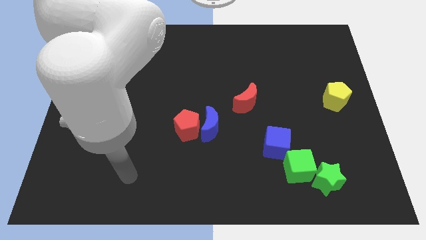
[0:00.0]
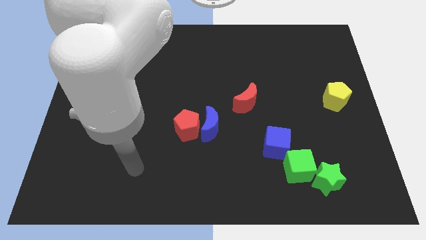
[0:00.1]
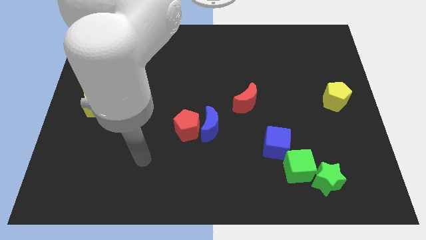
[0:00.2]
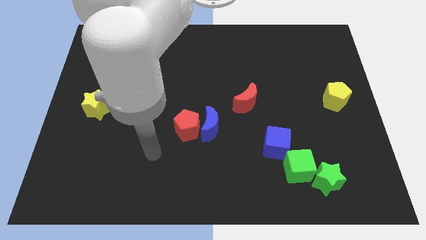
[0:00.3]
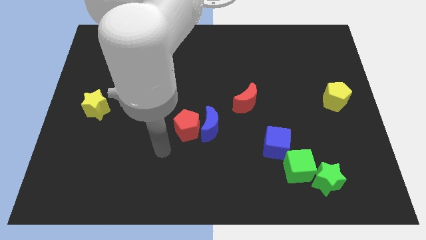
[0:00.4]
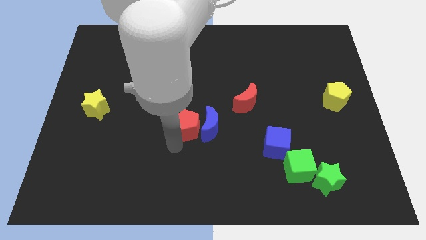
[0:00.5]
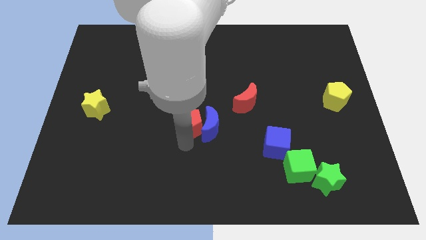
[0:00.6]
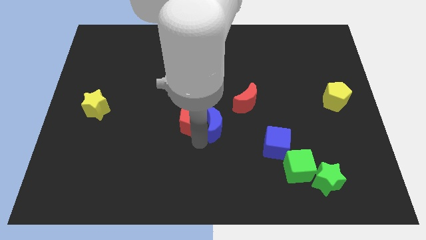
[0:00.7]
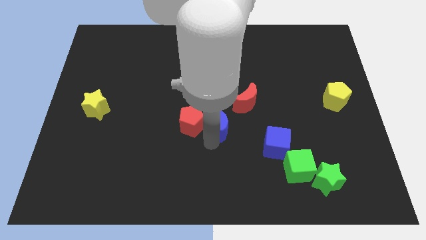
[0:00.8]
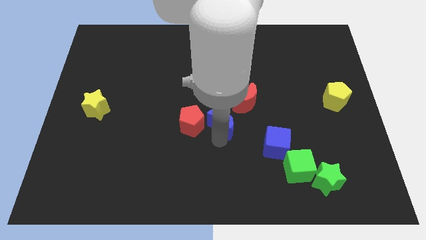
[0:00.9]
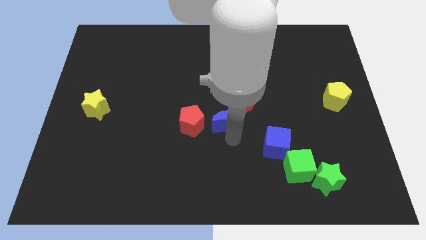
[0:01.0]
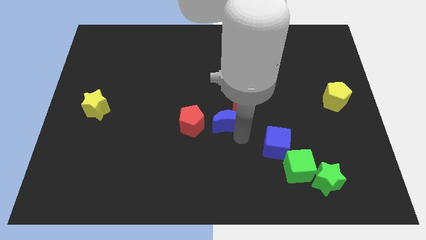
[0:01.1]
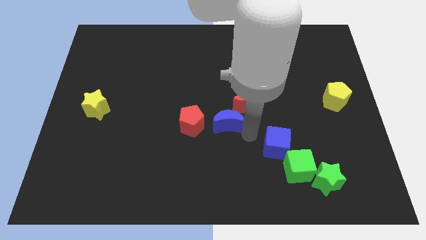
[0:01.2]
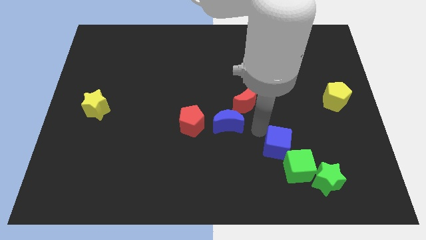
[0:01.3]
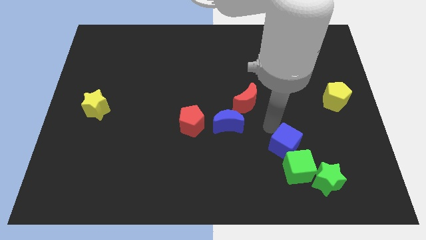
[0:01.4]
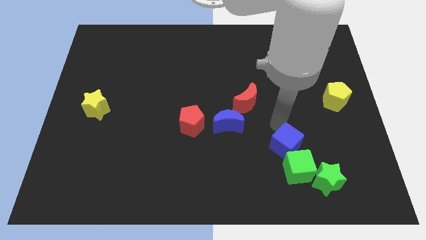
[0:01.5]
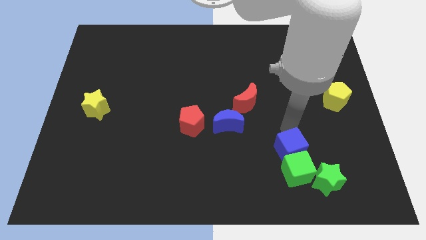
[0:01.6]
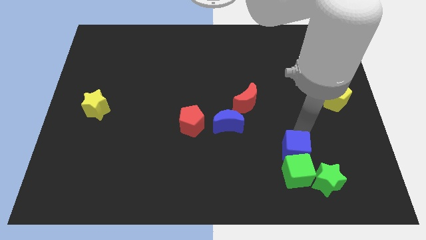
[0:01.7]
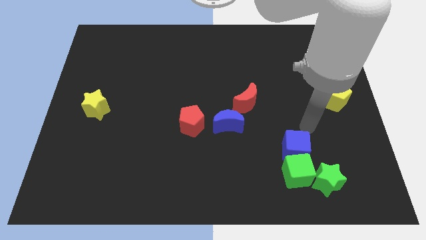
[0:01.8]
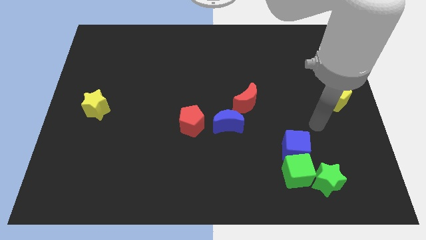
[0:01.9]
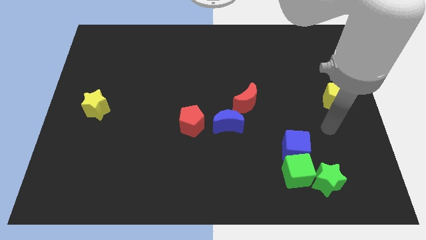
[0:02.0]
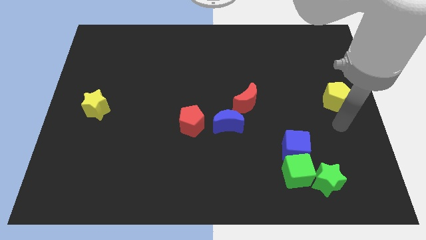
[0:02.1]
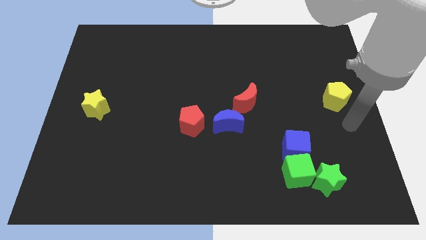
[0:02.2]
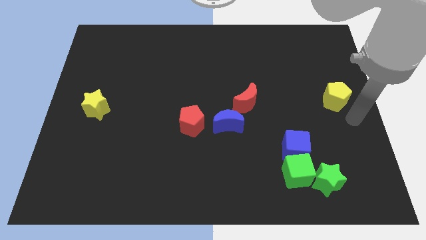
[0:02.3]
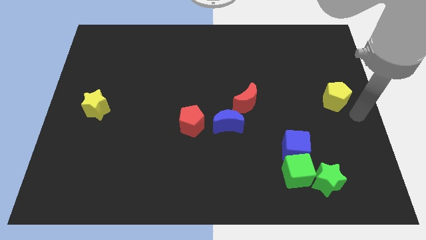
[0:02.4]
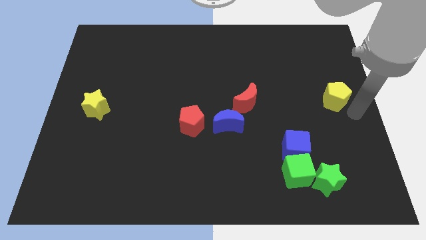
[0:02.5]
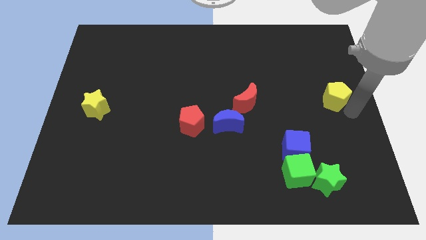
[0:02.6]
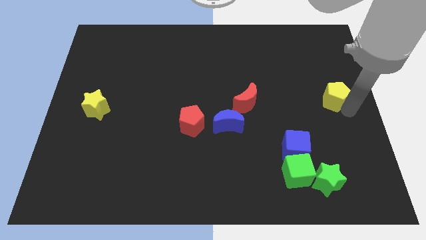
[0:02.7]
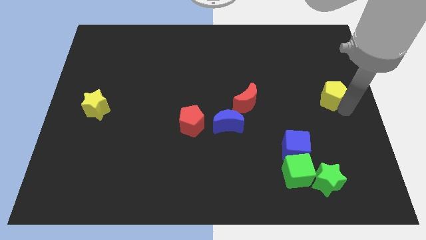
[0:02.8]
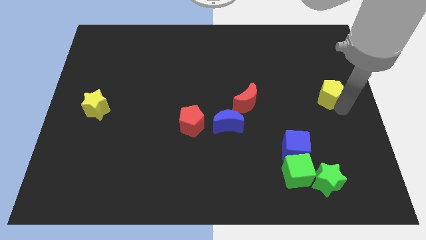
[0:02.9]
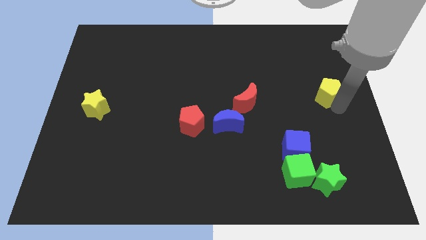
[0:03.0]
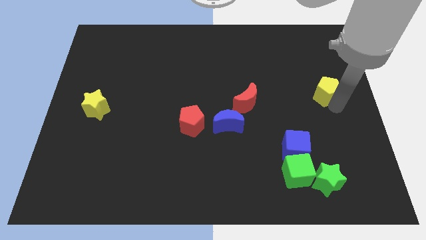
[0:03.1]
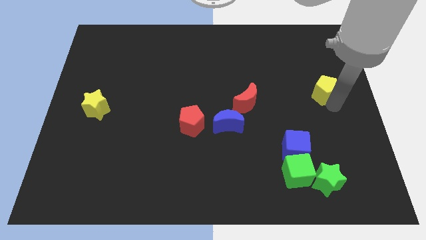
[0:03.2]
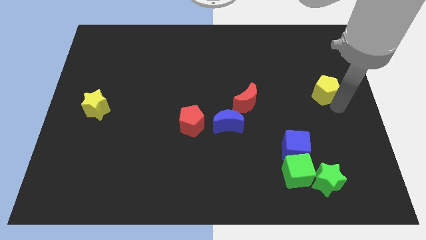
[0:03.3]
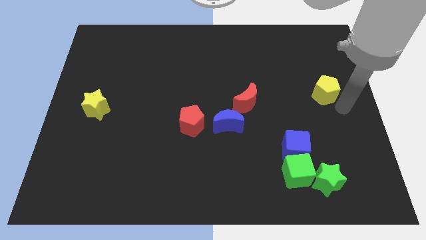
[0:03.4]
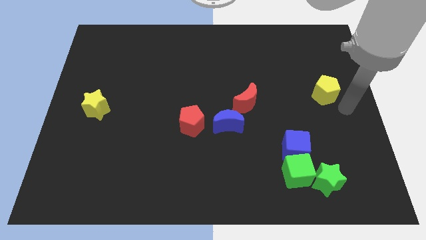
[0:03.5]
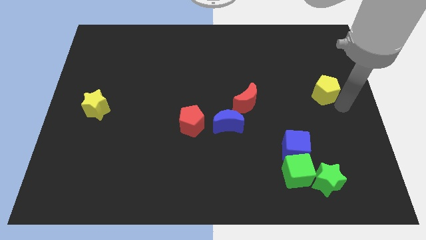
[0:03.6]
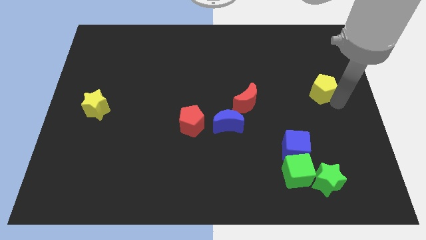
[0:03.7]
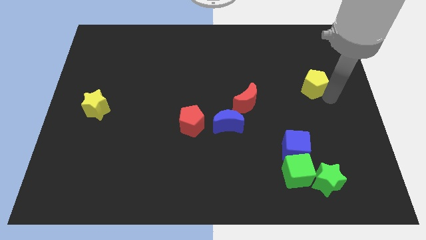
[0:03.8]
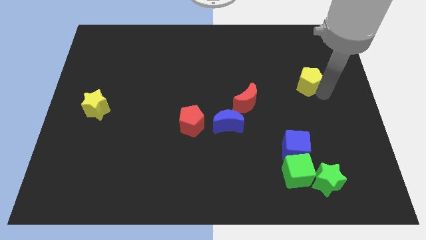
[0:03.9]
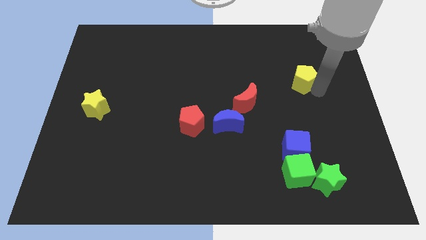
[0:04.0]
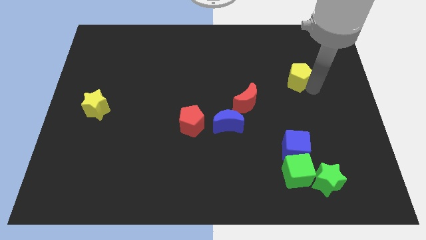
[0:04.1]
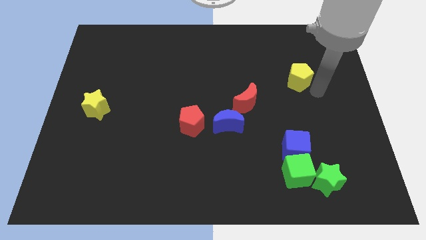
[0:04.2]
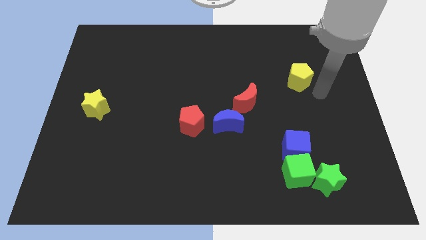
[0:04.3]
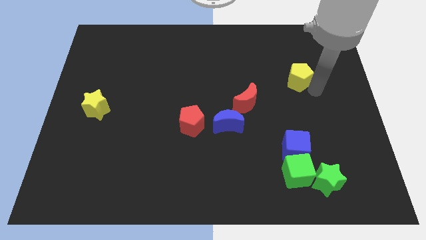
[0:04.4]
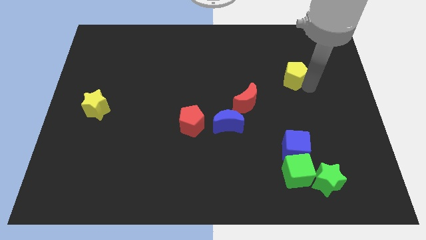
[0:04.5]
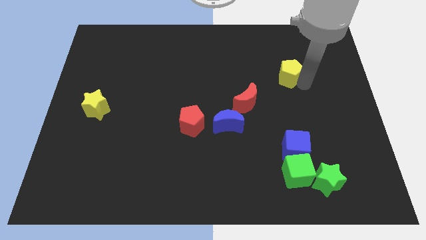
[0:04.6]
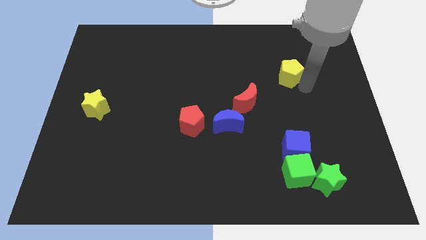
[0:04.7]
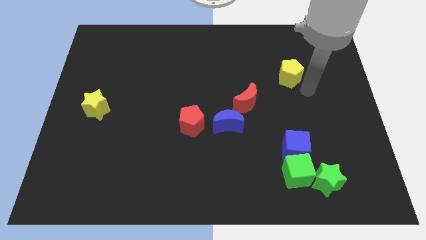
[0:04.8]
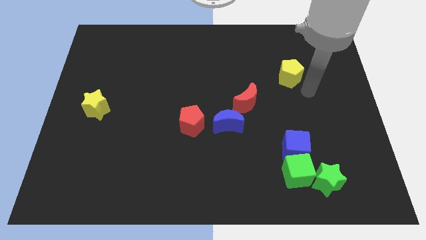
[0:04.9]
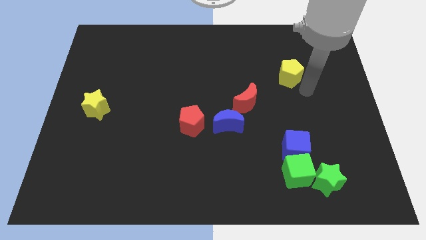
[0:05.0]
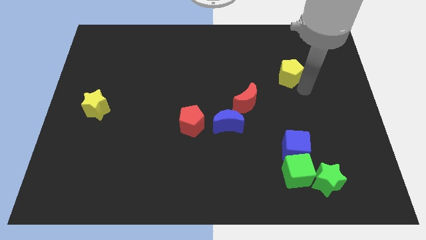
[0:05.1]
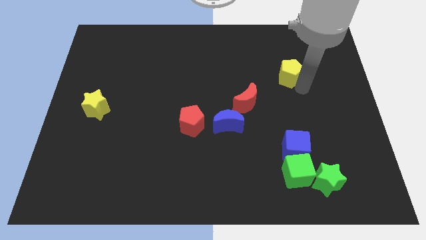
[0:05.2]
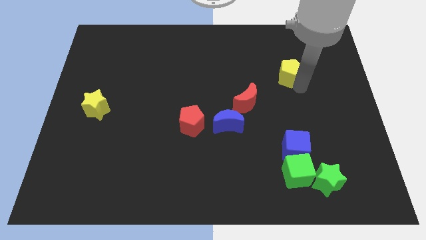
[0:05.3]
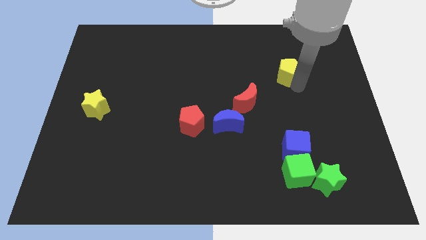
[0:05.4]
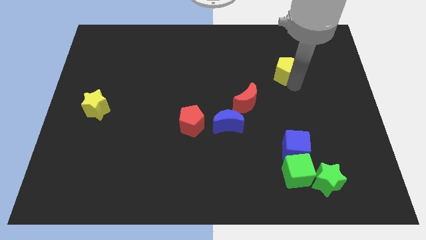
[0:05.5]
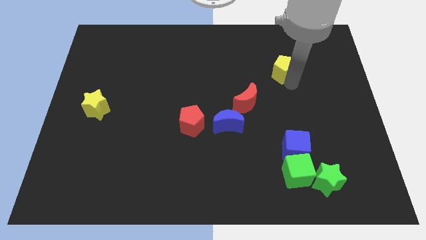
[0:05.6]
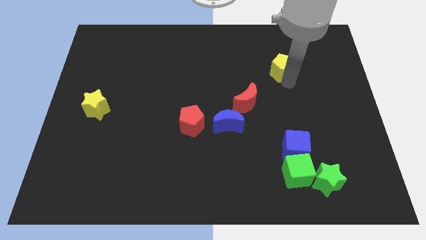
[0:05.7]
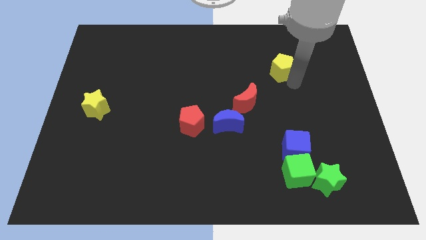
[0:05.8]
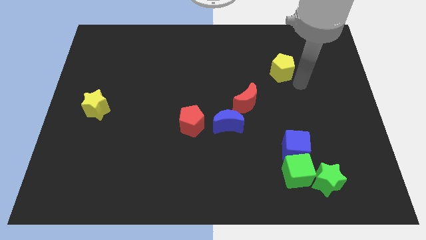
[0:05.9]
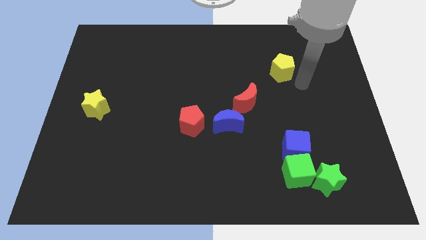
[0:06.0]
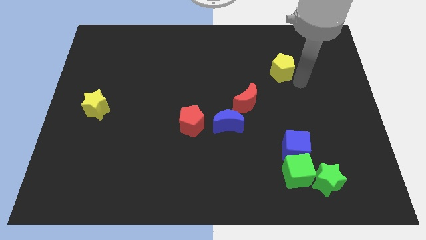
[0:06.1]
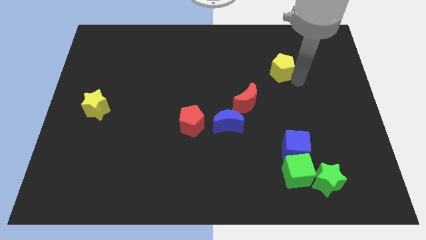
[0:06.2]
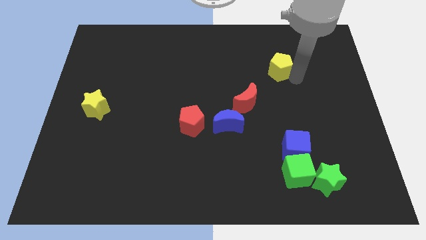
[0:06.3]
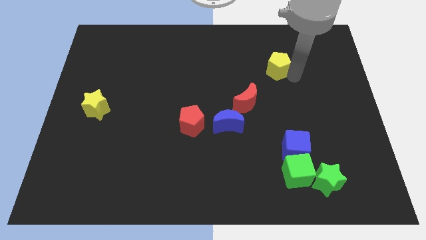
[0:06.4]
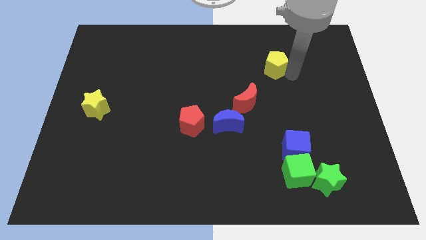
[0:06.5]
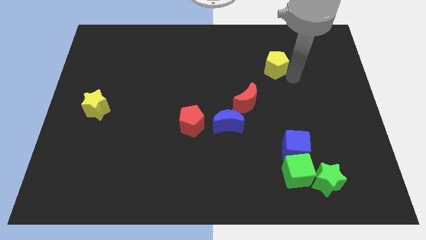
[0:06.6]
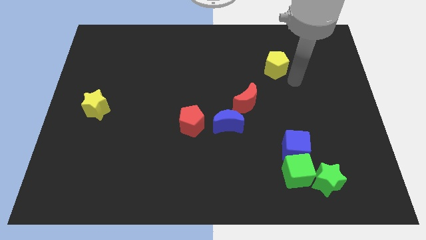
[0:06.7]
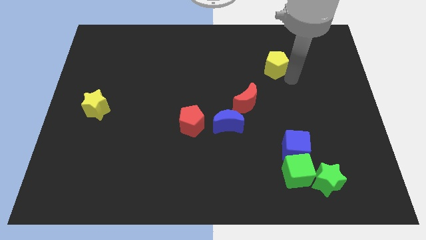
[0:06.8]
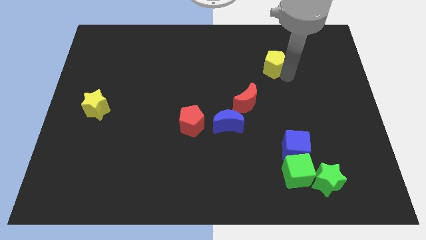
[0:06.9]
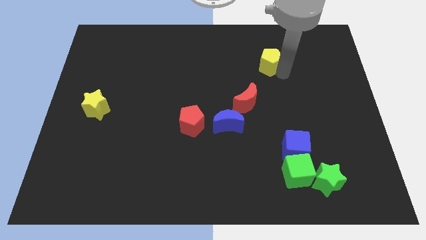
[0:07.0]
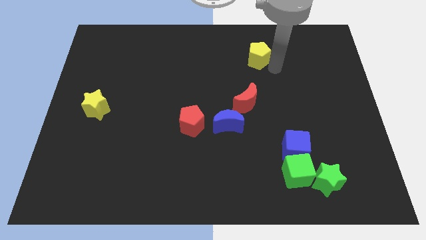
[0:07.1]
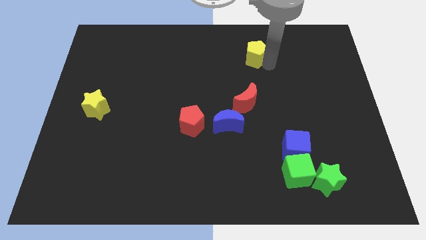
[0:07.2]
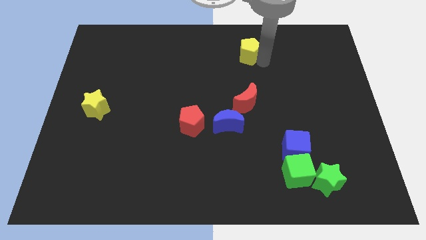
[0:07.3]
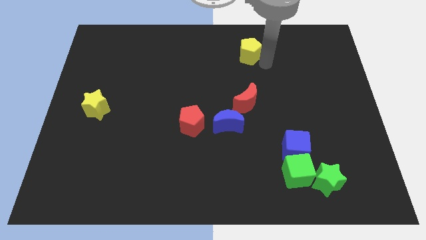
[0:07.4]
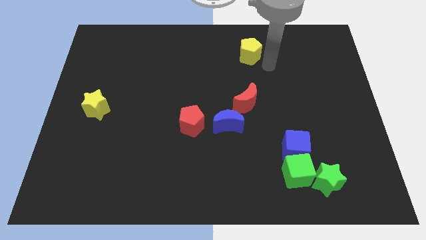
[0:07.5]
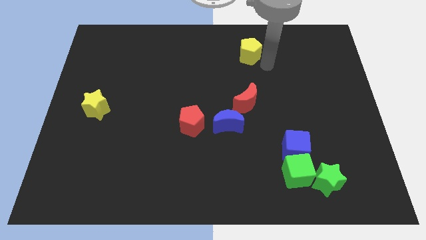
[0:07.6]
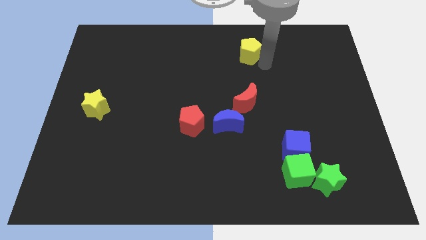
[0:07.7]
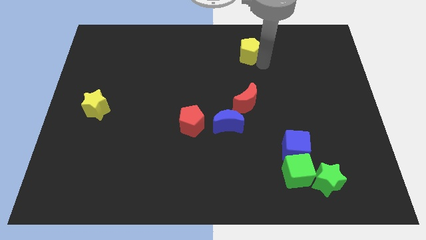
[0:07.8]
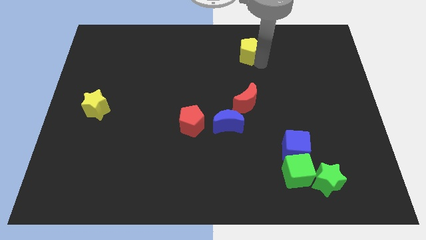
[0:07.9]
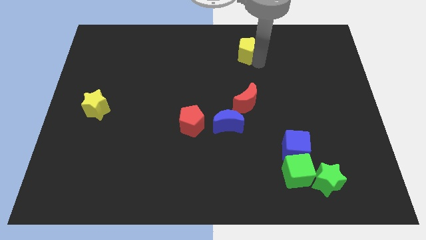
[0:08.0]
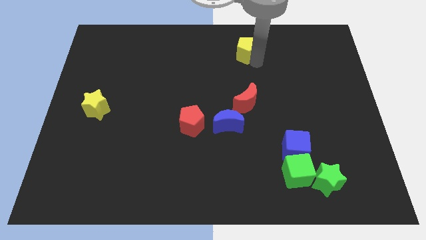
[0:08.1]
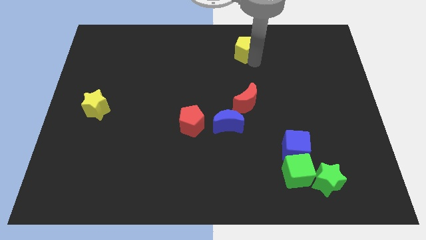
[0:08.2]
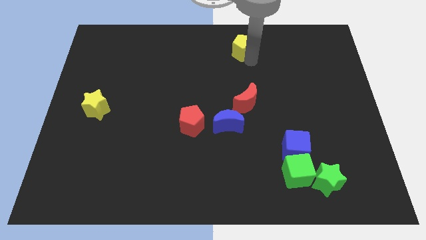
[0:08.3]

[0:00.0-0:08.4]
push the yellow pentagon to the top
